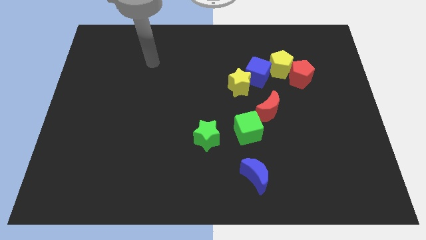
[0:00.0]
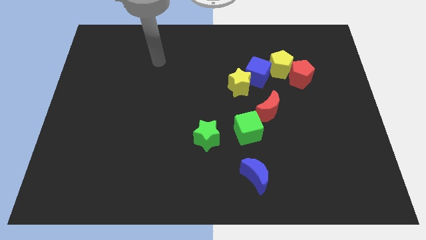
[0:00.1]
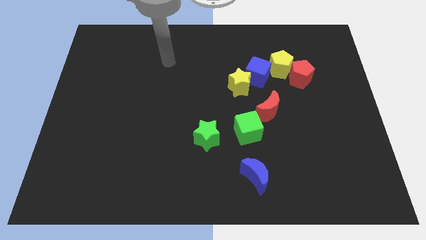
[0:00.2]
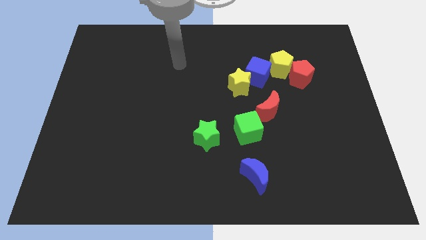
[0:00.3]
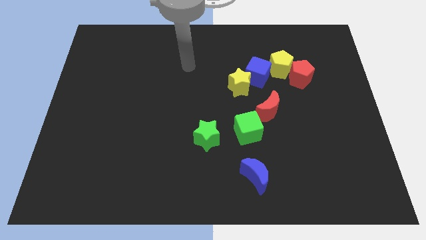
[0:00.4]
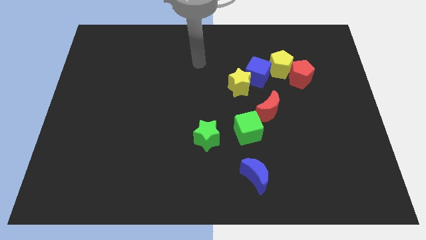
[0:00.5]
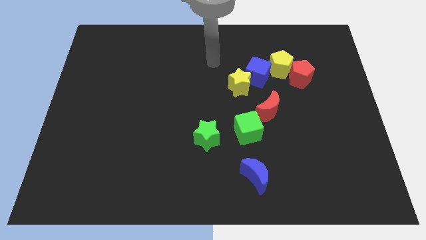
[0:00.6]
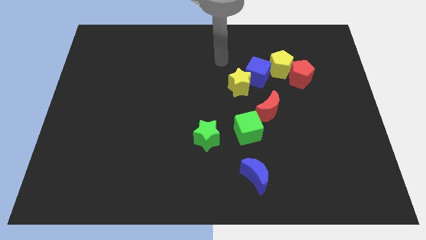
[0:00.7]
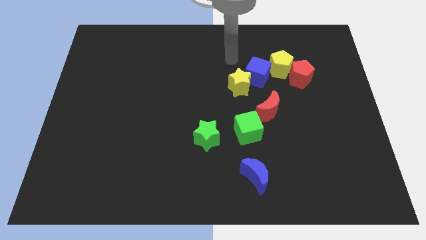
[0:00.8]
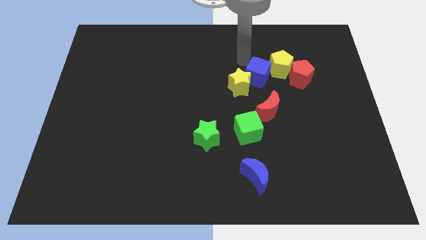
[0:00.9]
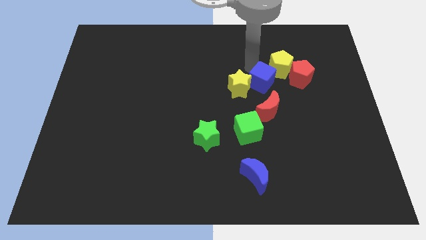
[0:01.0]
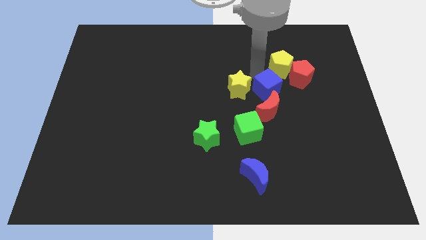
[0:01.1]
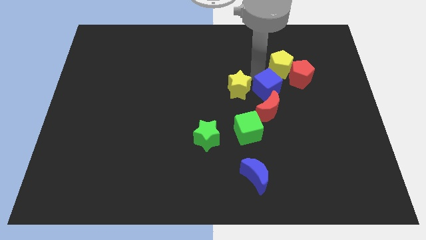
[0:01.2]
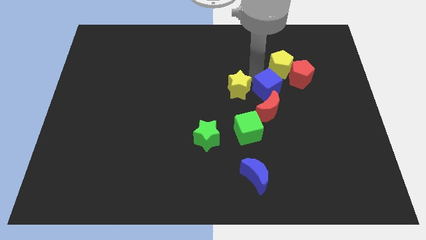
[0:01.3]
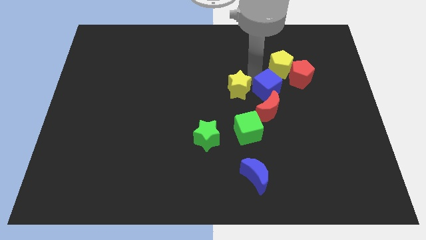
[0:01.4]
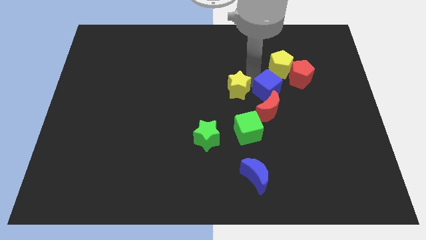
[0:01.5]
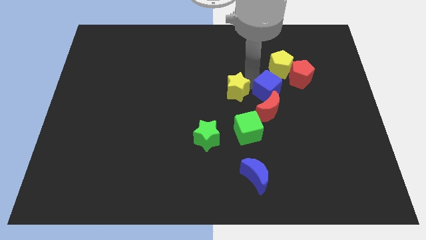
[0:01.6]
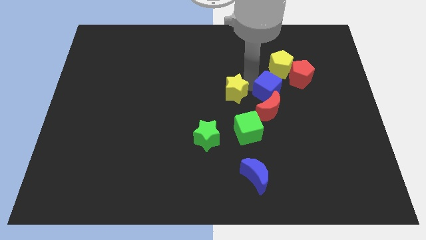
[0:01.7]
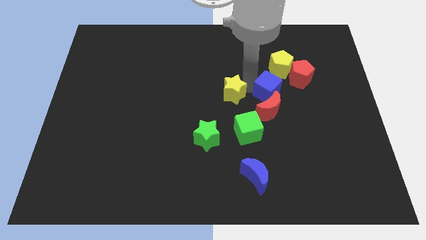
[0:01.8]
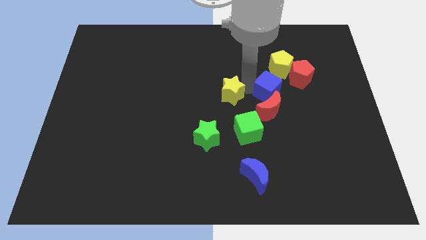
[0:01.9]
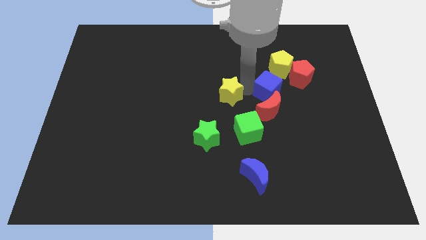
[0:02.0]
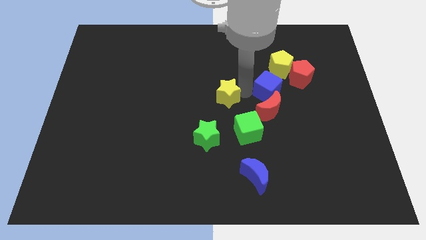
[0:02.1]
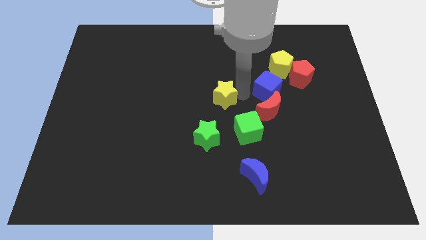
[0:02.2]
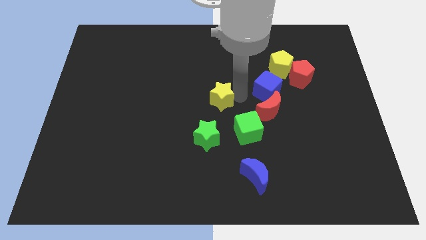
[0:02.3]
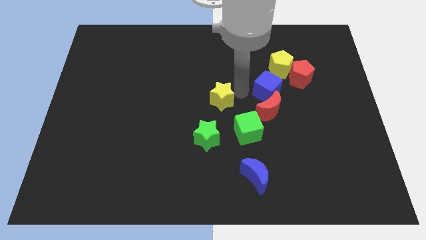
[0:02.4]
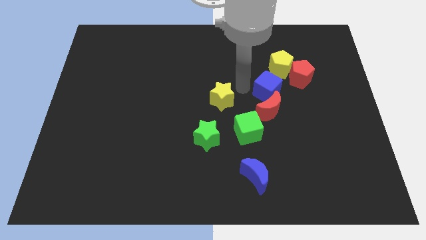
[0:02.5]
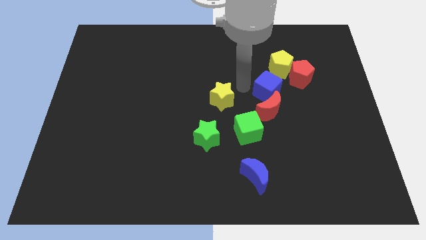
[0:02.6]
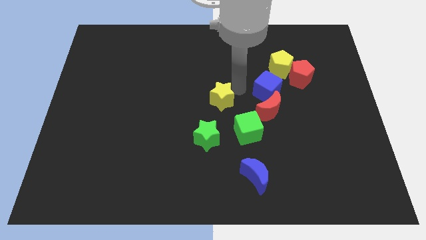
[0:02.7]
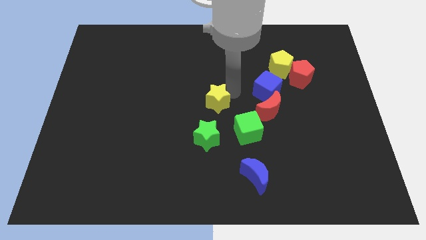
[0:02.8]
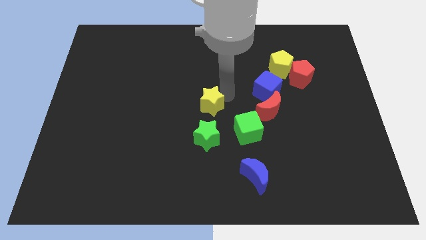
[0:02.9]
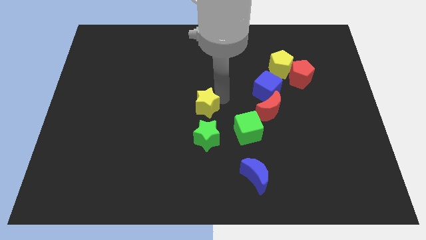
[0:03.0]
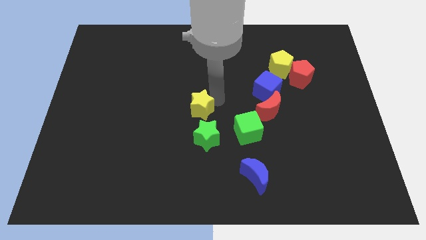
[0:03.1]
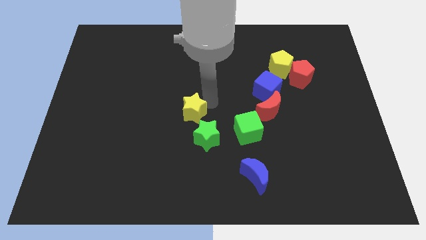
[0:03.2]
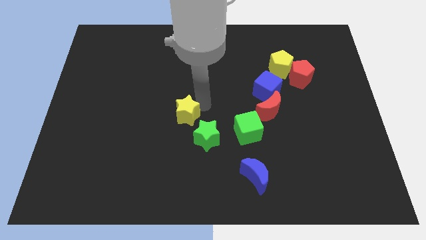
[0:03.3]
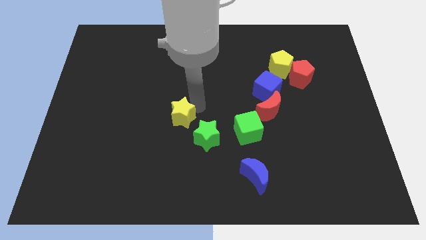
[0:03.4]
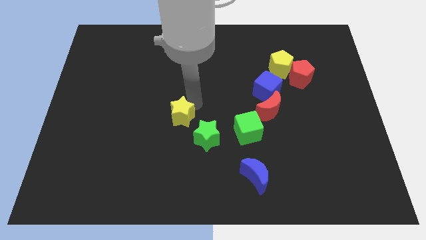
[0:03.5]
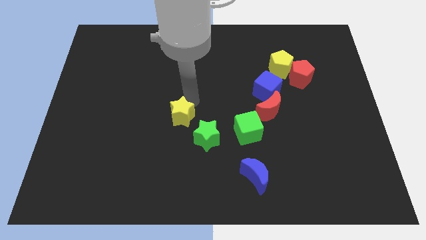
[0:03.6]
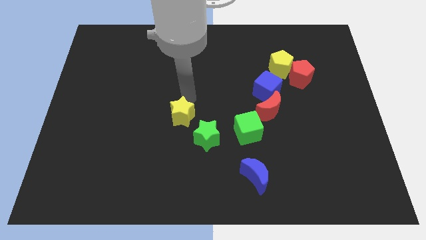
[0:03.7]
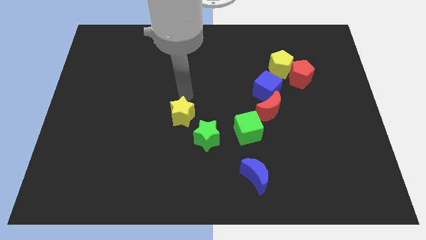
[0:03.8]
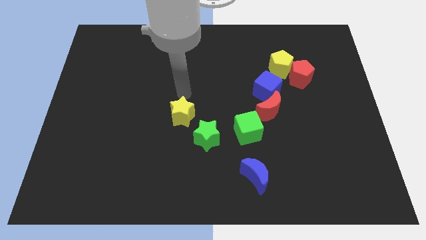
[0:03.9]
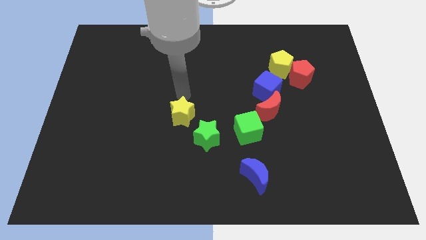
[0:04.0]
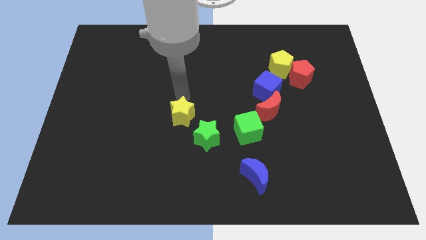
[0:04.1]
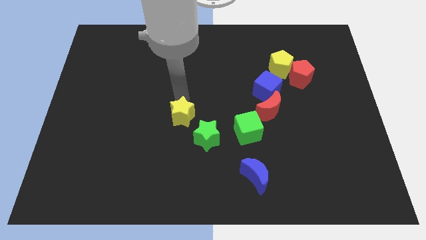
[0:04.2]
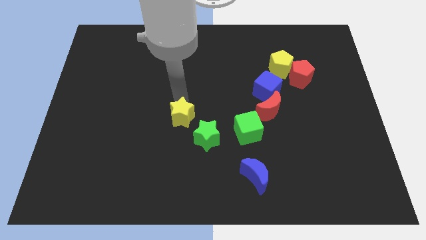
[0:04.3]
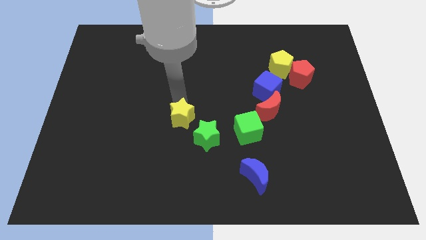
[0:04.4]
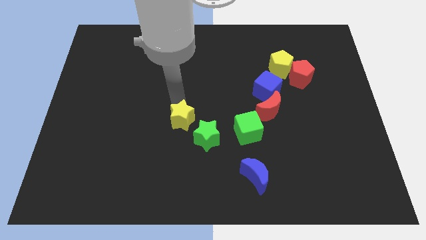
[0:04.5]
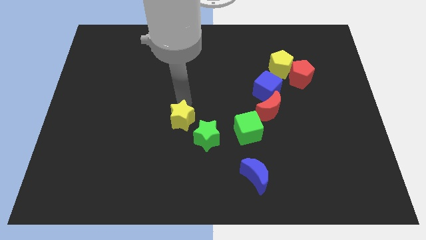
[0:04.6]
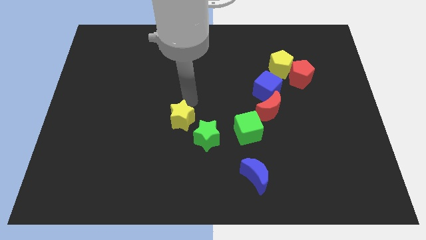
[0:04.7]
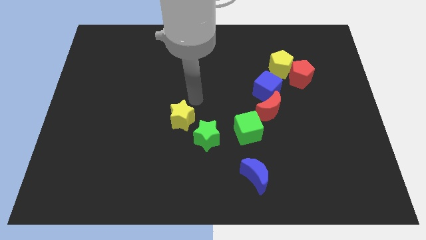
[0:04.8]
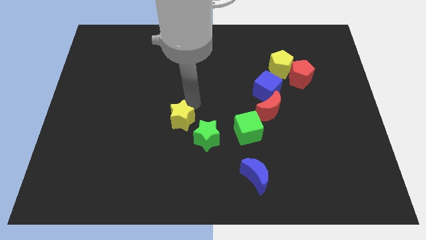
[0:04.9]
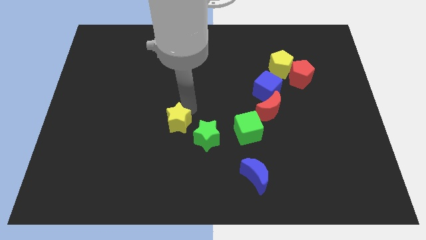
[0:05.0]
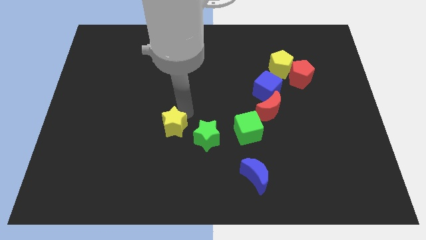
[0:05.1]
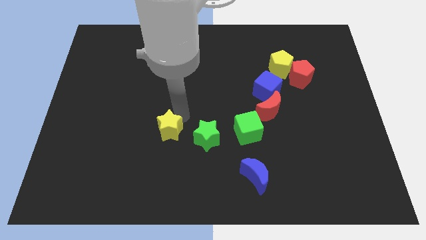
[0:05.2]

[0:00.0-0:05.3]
move the yellow star down and to the left

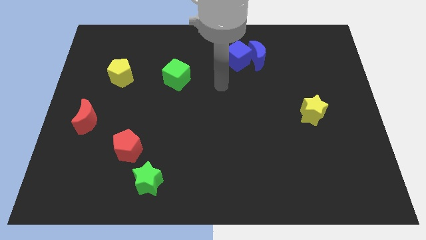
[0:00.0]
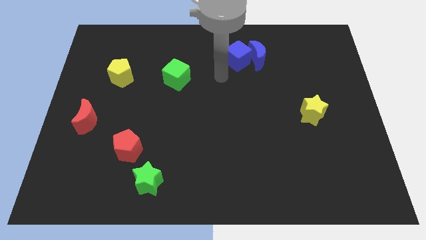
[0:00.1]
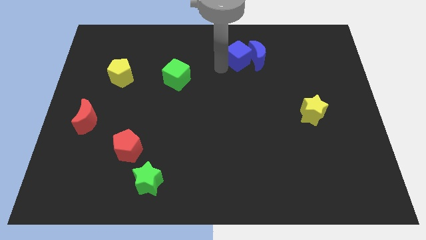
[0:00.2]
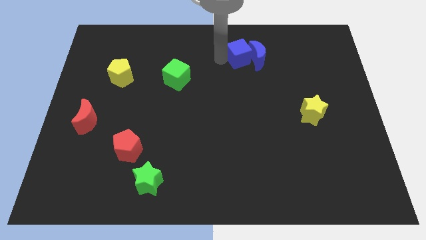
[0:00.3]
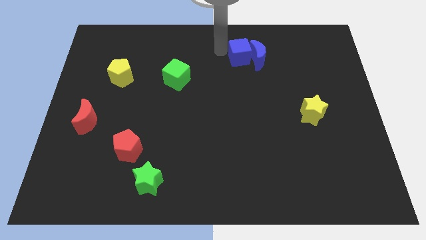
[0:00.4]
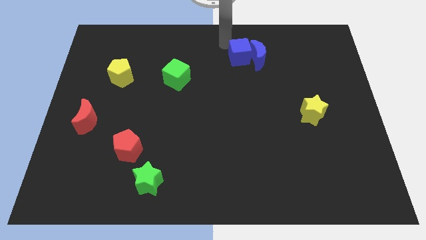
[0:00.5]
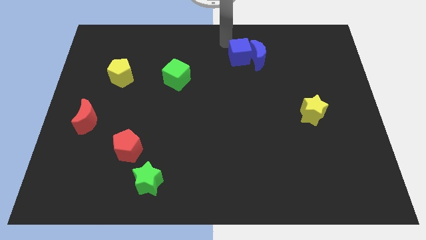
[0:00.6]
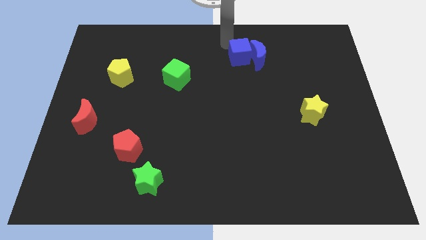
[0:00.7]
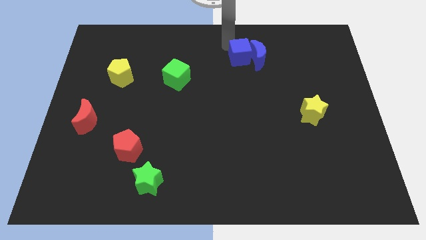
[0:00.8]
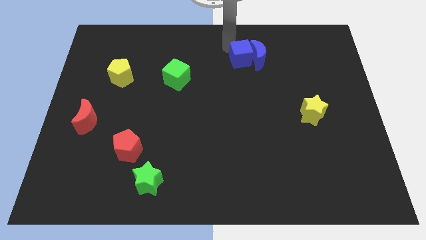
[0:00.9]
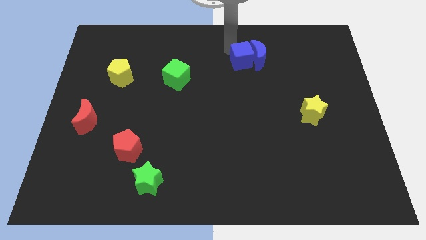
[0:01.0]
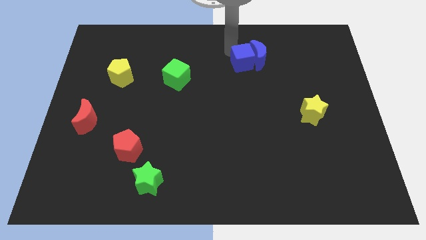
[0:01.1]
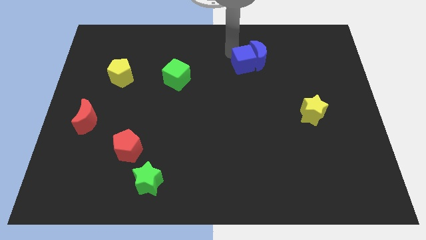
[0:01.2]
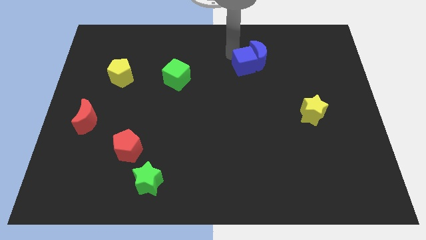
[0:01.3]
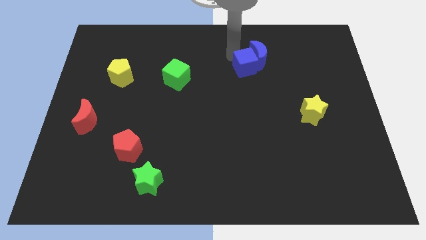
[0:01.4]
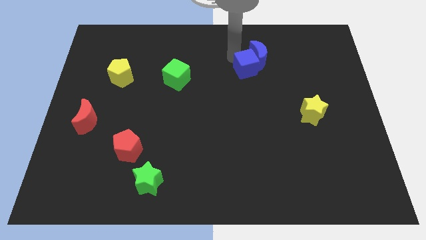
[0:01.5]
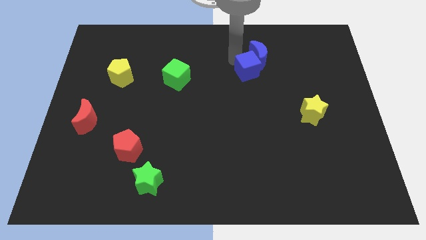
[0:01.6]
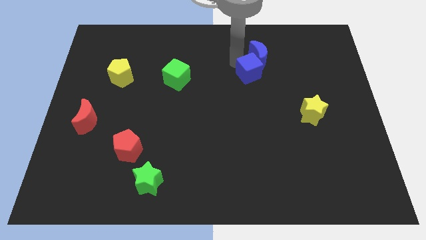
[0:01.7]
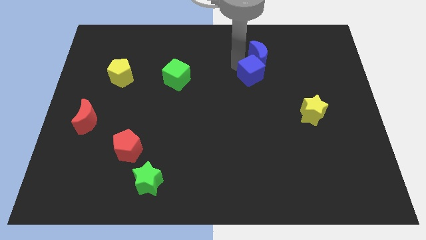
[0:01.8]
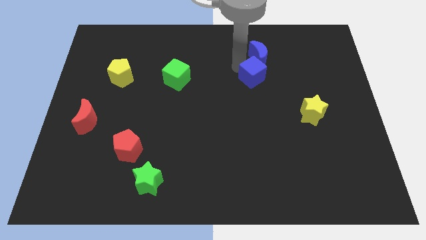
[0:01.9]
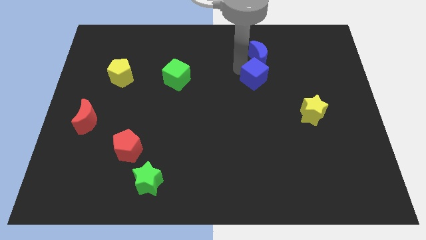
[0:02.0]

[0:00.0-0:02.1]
move the blue cube downwards and right a little

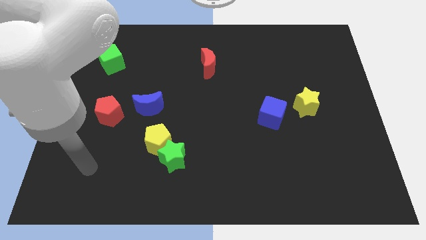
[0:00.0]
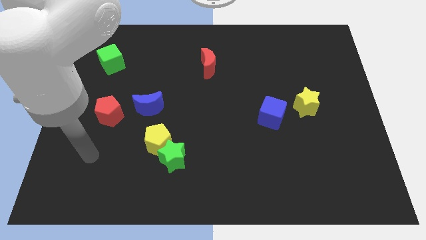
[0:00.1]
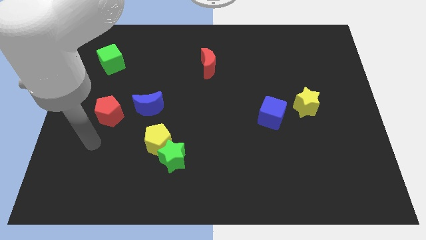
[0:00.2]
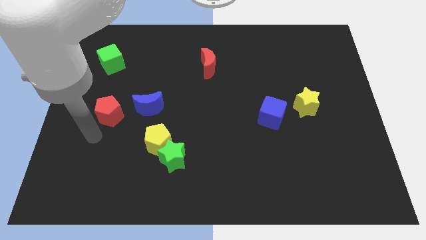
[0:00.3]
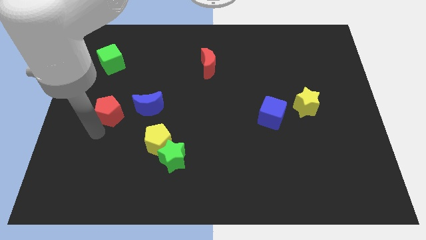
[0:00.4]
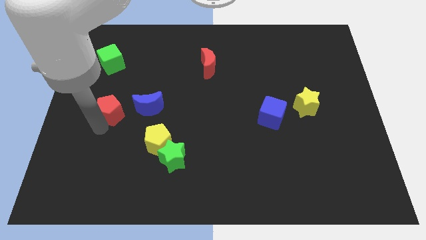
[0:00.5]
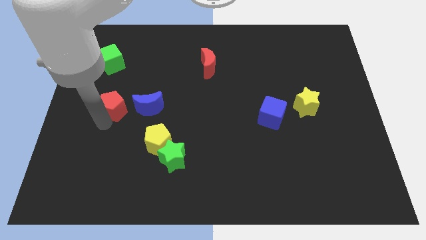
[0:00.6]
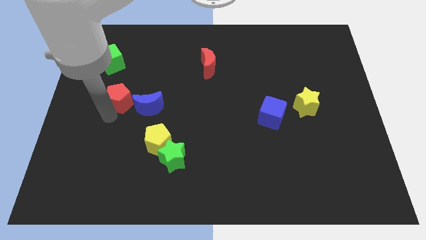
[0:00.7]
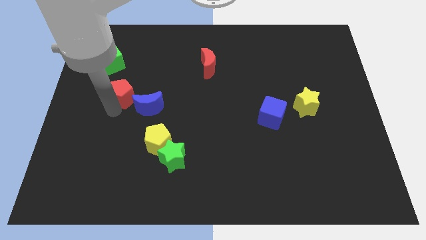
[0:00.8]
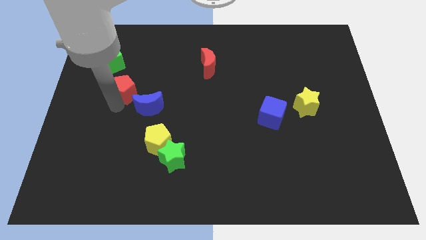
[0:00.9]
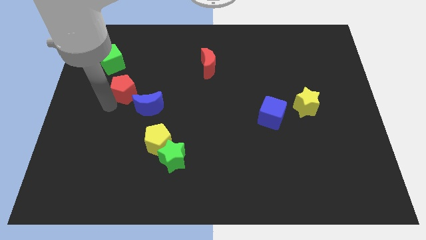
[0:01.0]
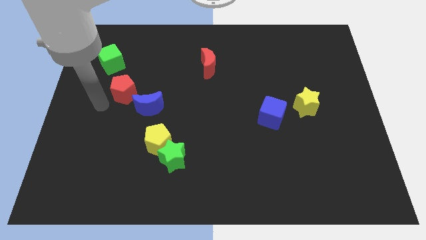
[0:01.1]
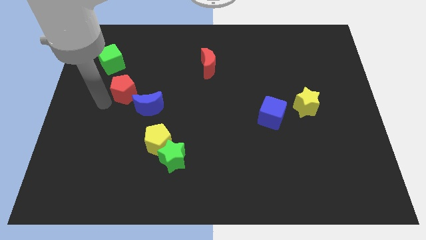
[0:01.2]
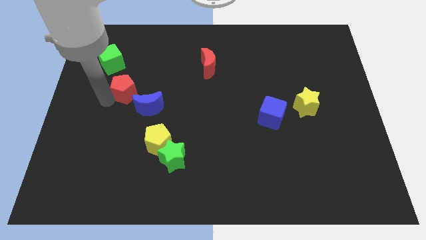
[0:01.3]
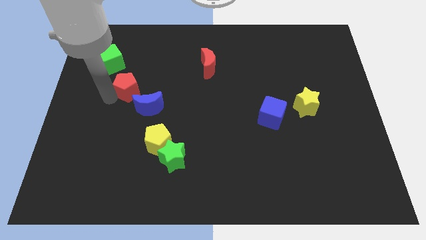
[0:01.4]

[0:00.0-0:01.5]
slightly move the red pentagon up and to the right diagonally
